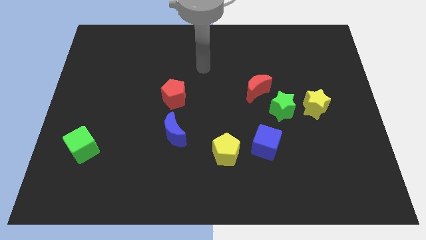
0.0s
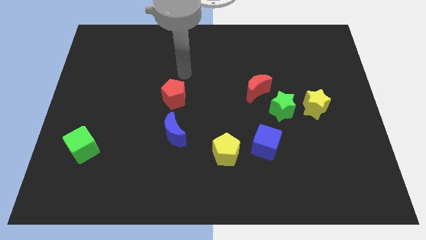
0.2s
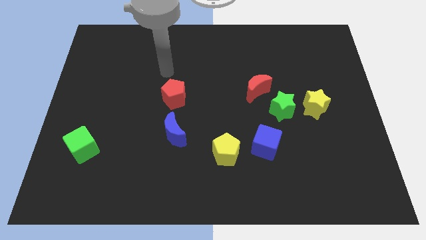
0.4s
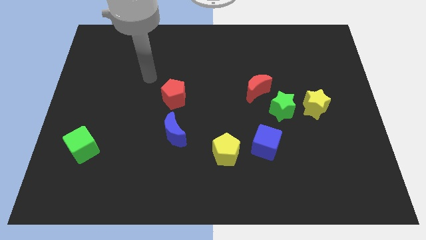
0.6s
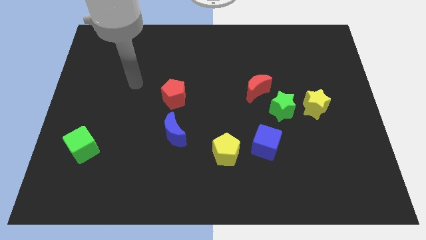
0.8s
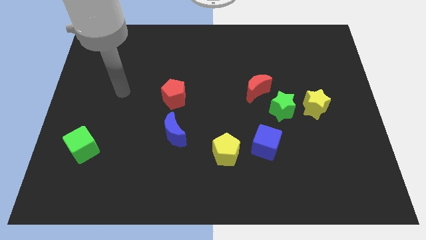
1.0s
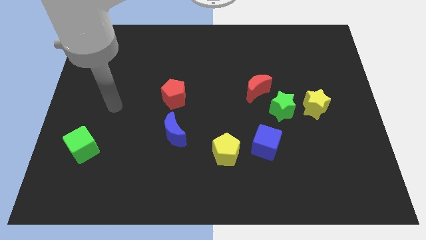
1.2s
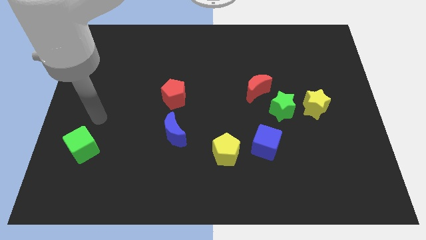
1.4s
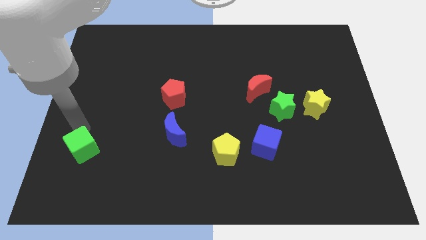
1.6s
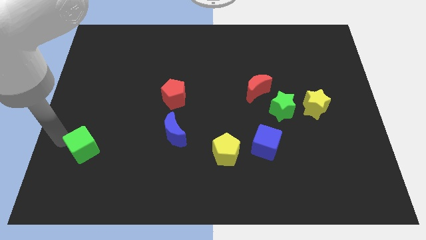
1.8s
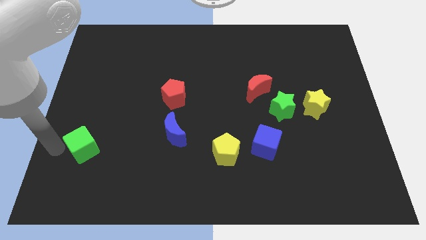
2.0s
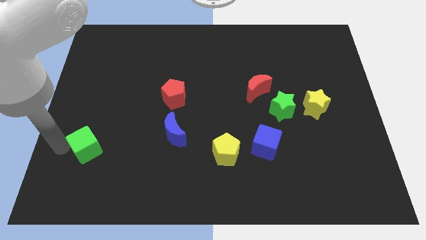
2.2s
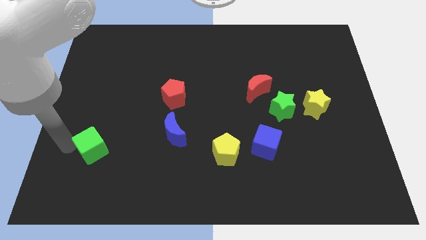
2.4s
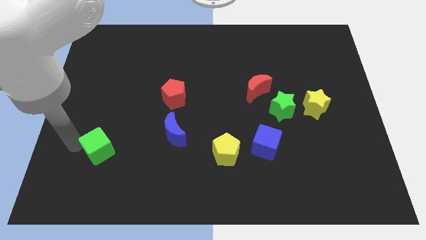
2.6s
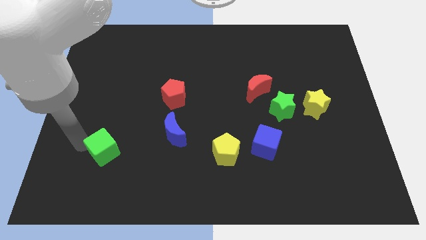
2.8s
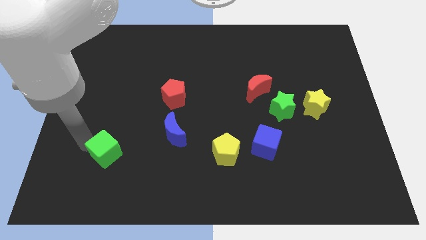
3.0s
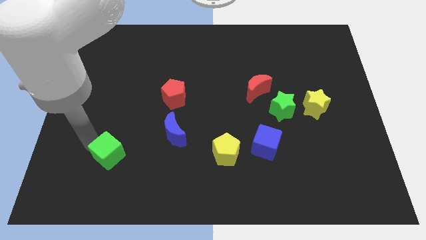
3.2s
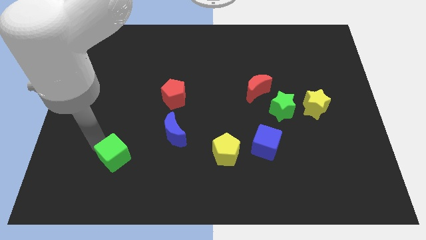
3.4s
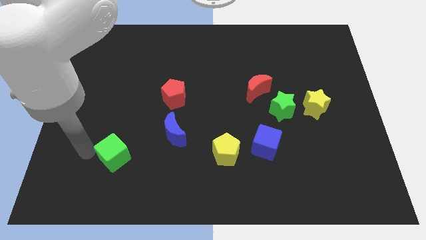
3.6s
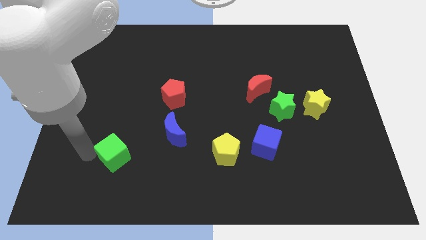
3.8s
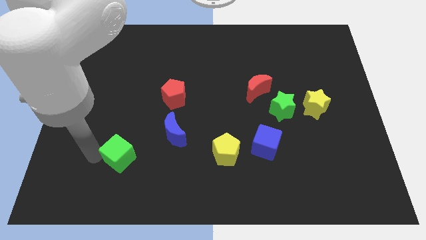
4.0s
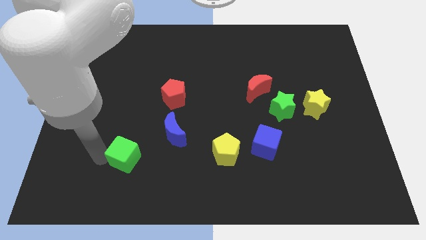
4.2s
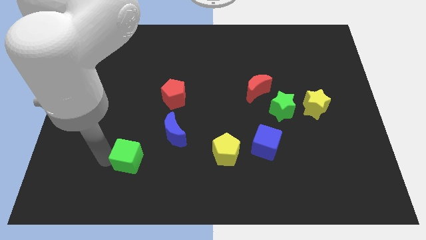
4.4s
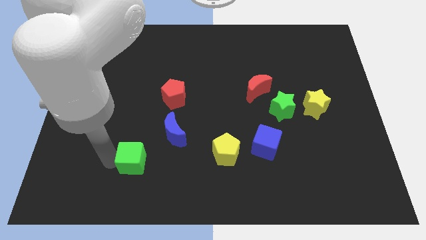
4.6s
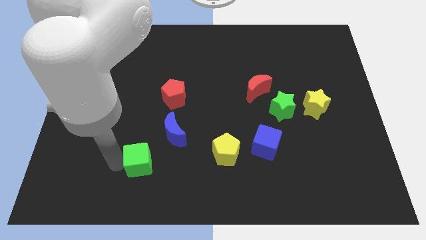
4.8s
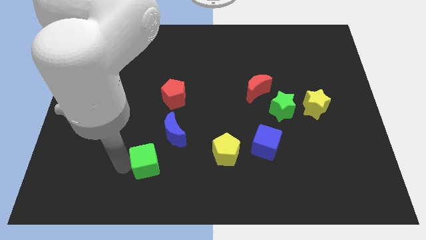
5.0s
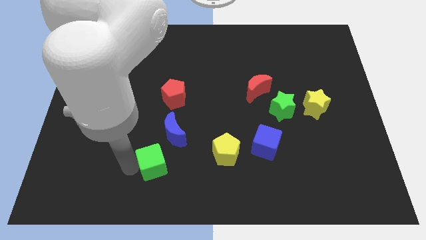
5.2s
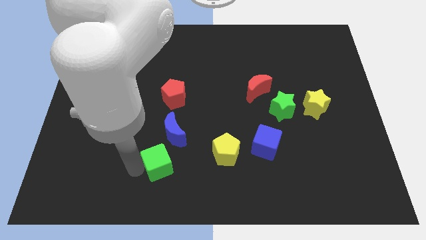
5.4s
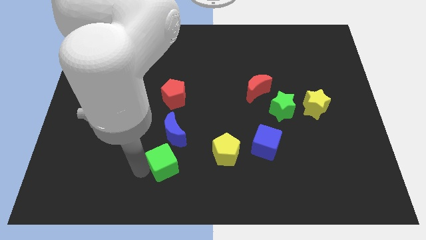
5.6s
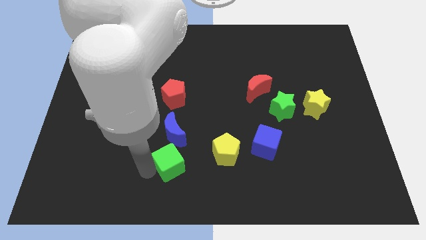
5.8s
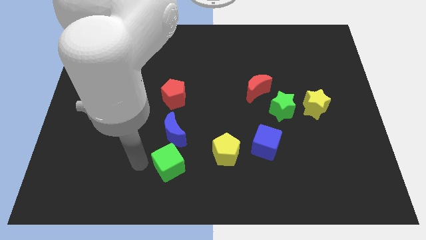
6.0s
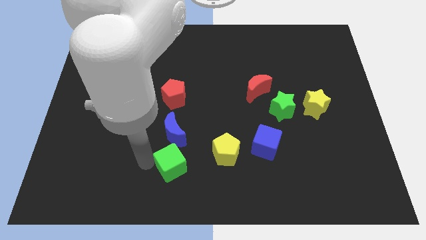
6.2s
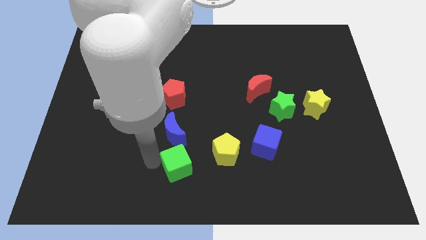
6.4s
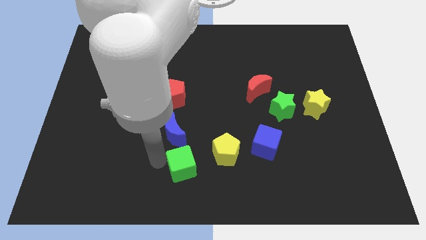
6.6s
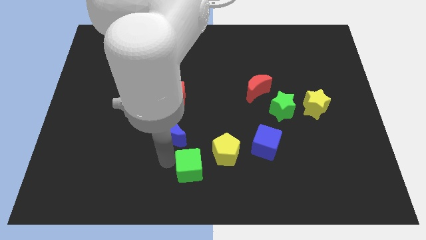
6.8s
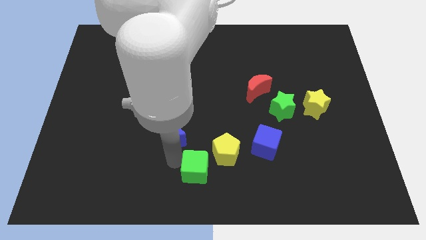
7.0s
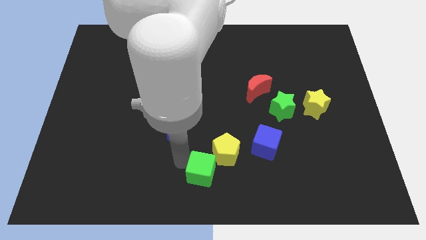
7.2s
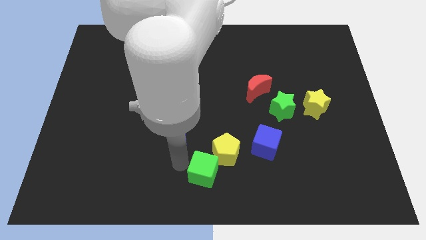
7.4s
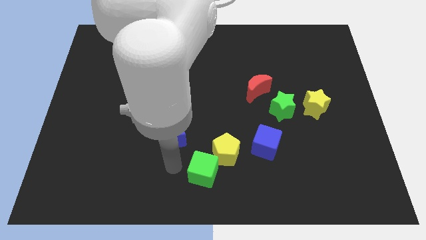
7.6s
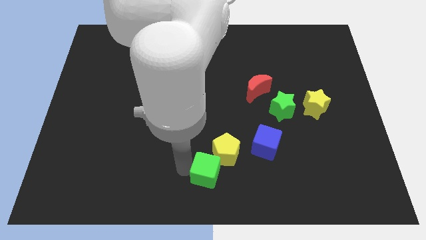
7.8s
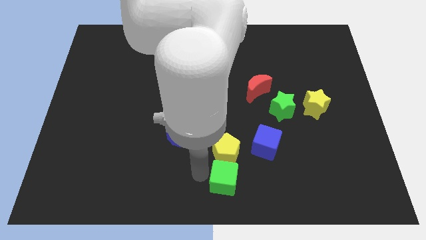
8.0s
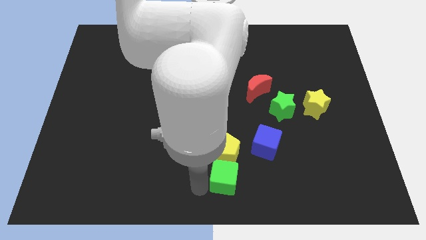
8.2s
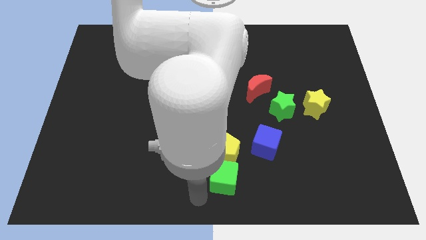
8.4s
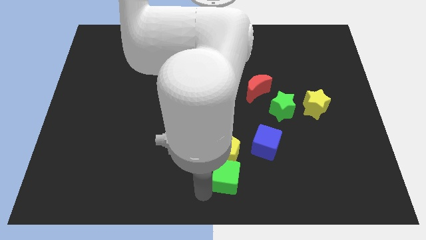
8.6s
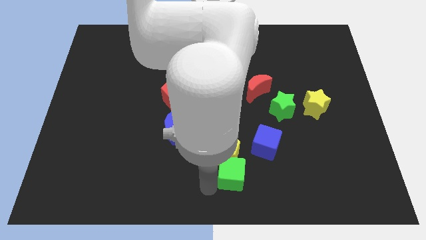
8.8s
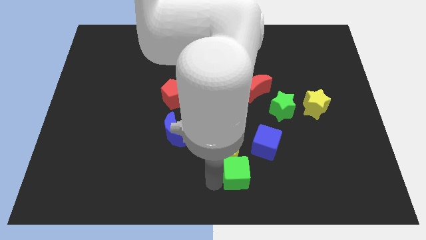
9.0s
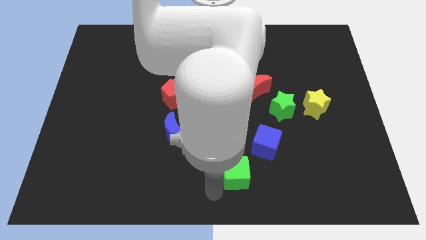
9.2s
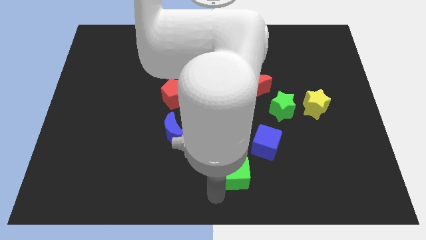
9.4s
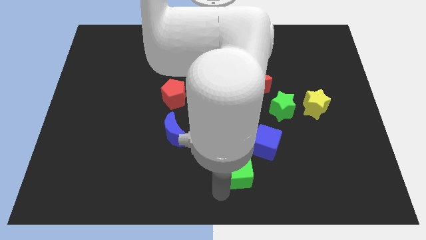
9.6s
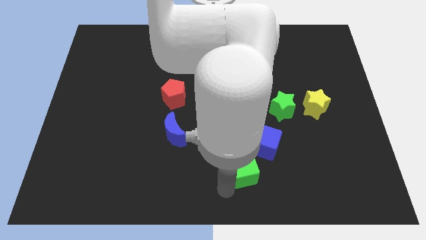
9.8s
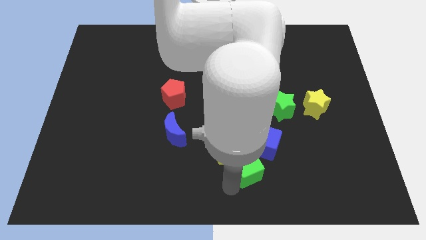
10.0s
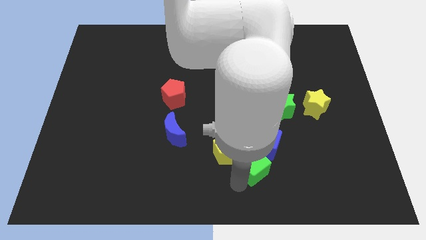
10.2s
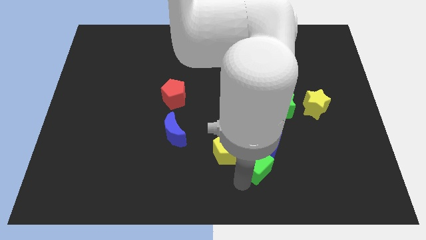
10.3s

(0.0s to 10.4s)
move the green cube next to the blue cube

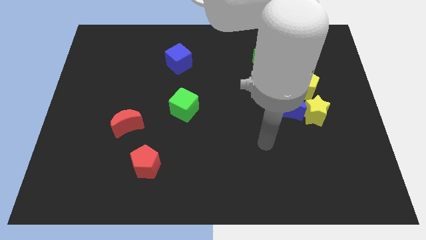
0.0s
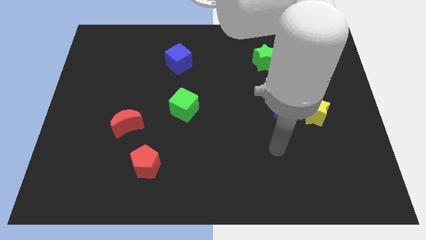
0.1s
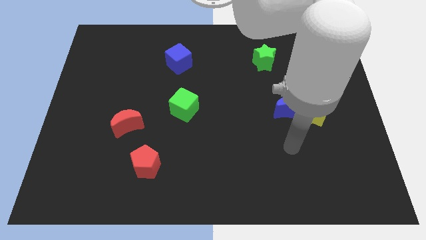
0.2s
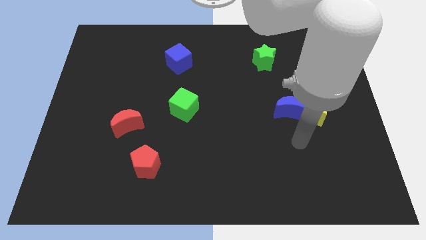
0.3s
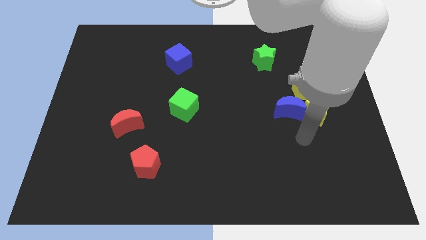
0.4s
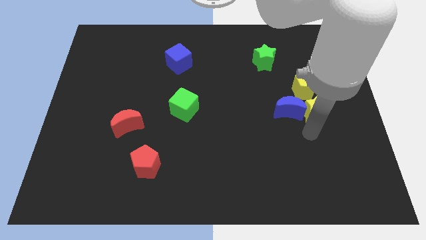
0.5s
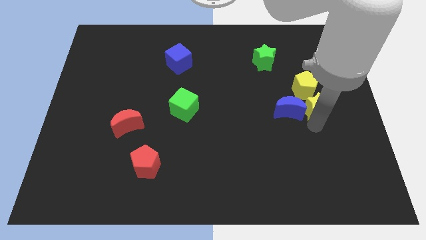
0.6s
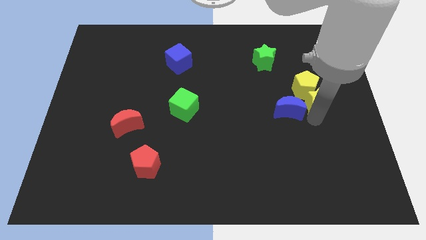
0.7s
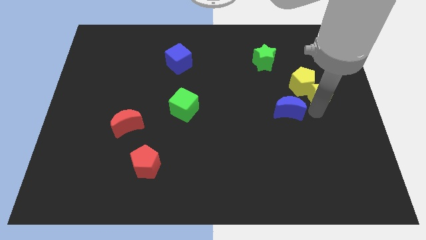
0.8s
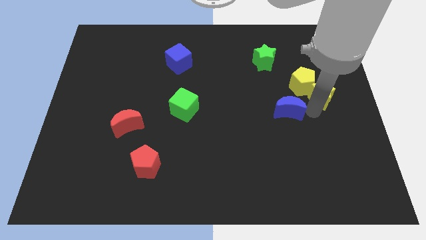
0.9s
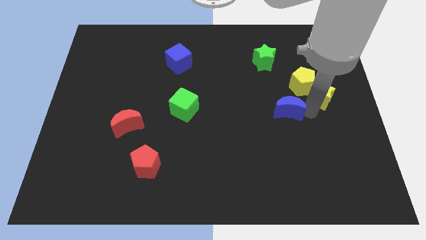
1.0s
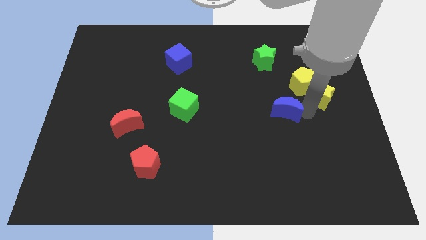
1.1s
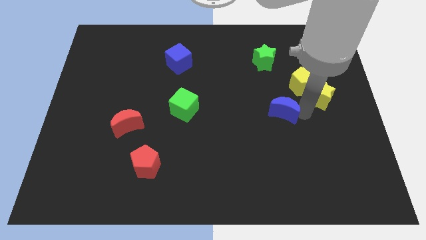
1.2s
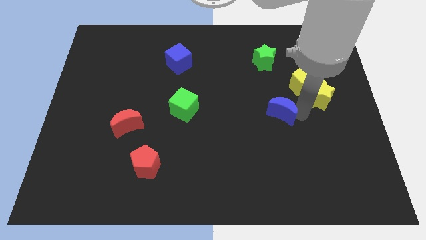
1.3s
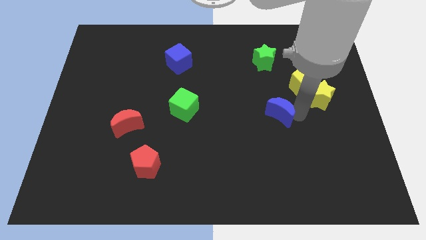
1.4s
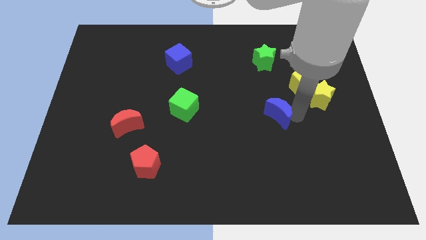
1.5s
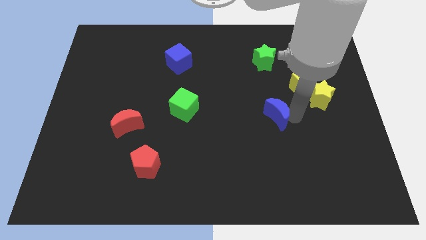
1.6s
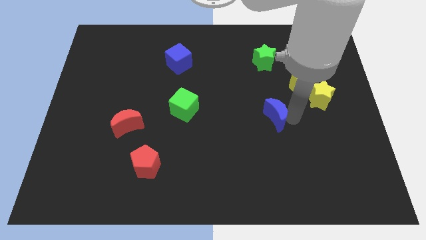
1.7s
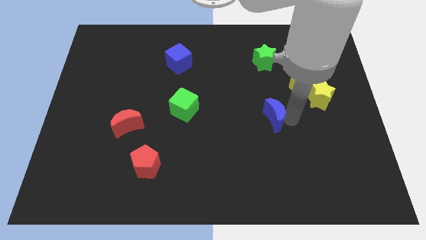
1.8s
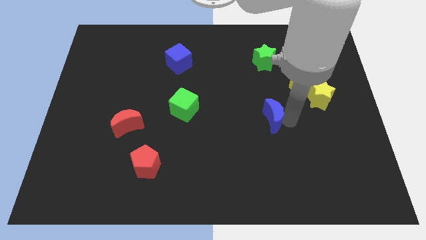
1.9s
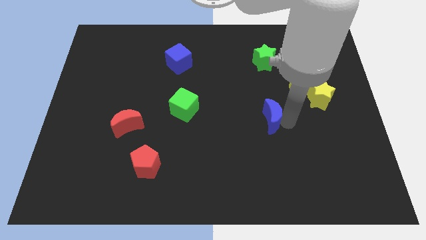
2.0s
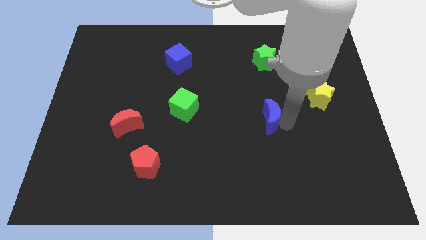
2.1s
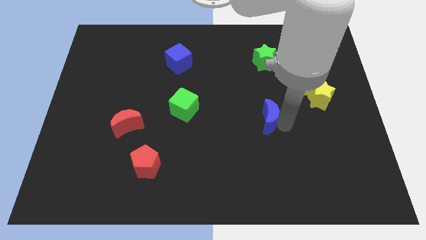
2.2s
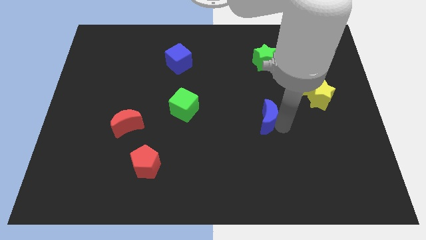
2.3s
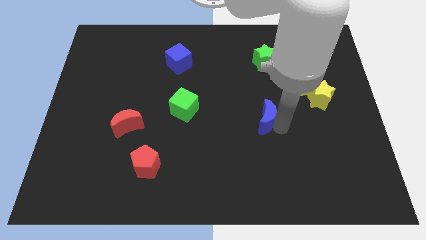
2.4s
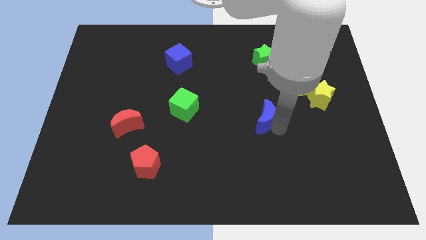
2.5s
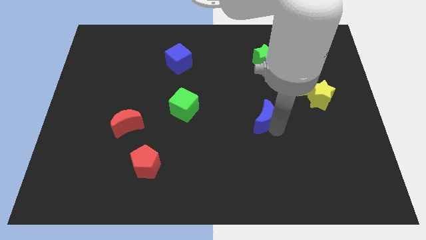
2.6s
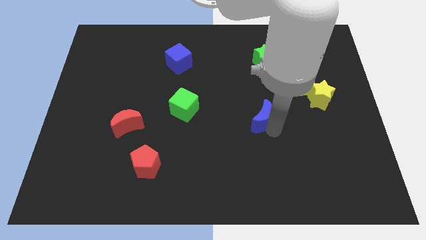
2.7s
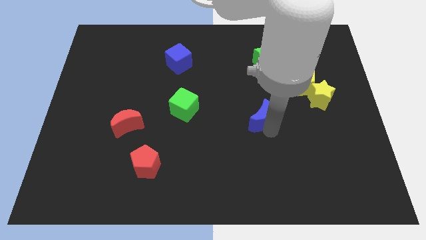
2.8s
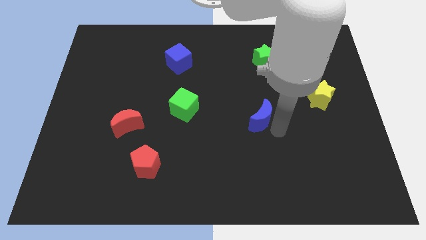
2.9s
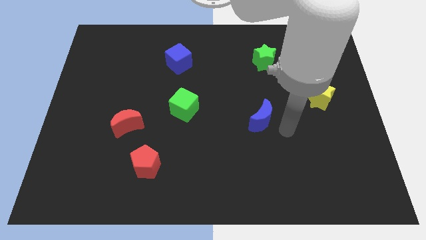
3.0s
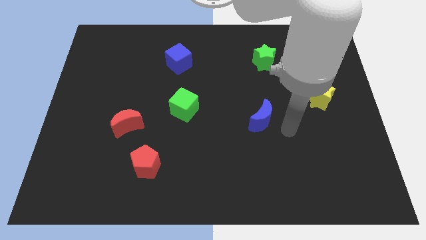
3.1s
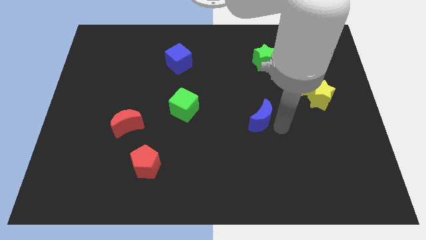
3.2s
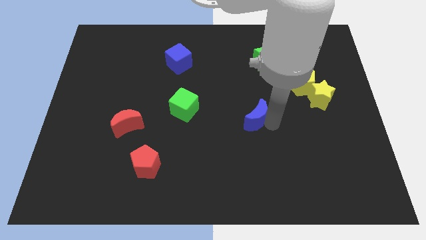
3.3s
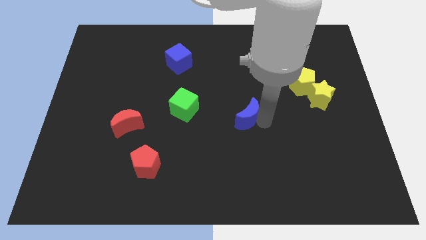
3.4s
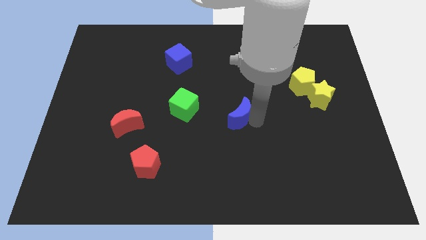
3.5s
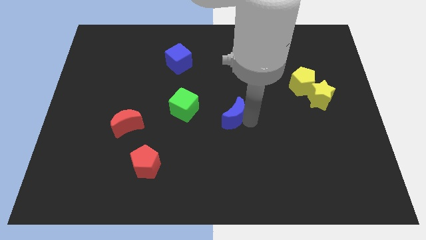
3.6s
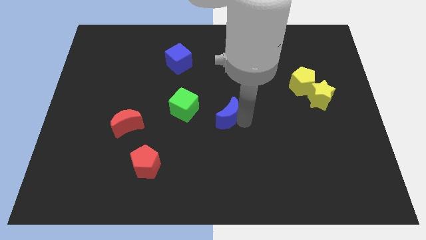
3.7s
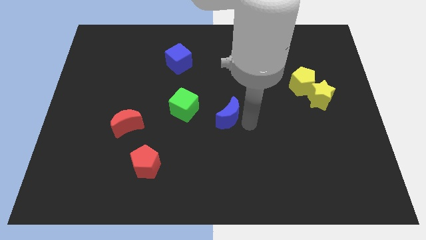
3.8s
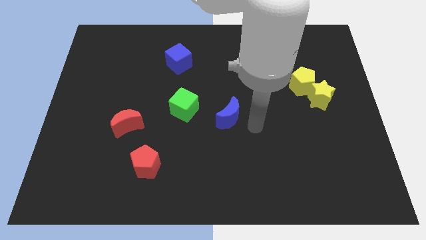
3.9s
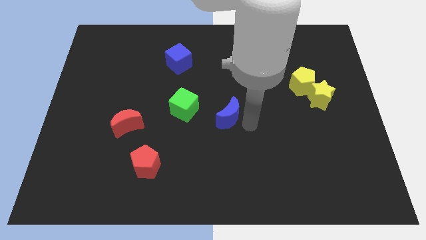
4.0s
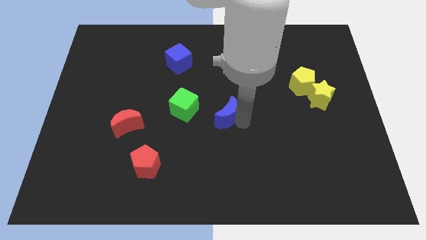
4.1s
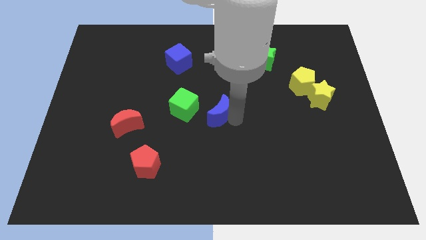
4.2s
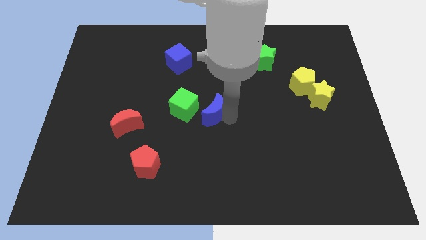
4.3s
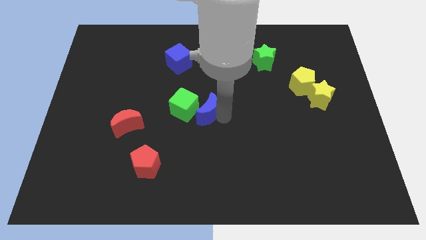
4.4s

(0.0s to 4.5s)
push the blue moon close to the green cube
